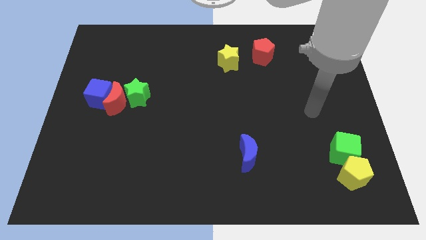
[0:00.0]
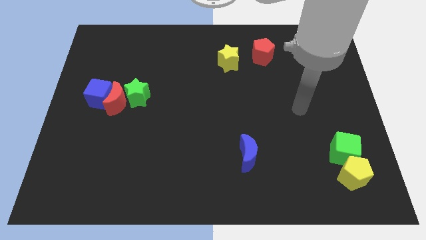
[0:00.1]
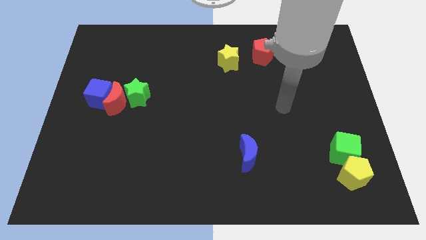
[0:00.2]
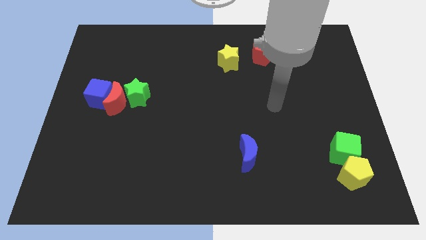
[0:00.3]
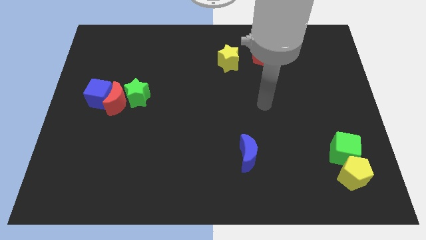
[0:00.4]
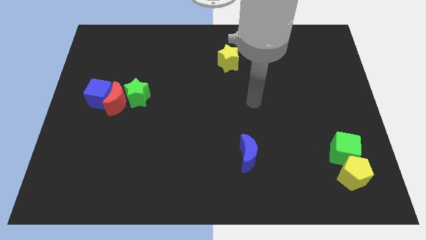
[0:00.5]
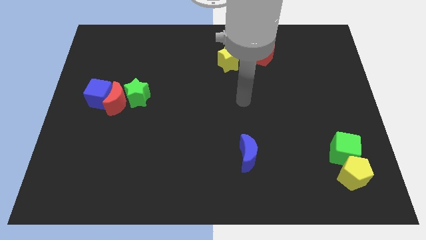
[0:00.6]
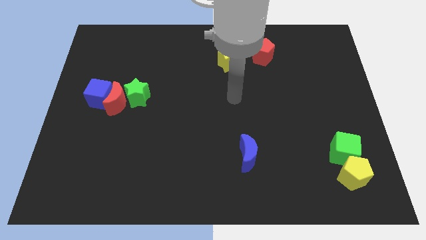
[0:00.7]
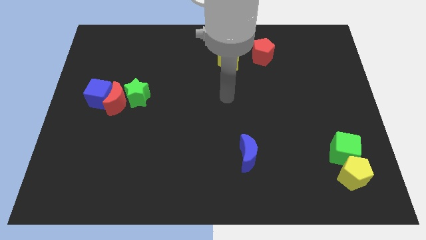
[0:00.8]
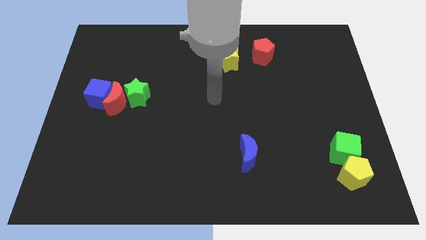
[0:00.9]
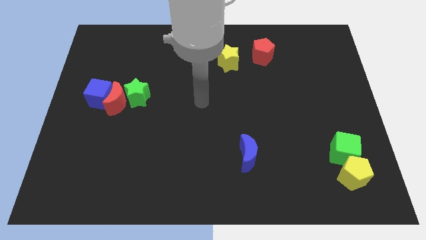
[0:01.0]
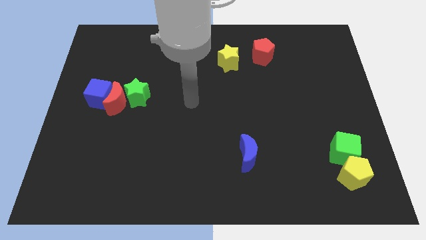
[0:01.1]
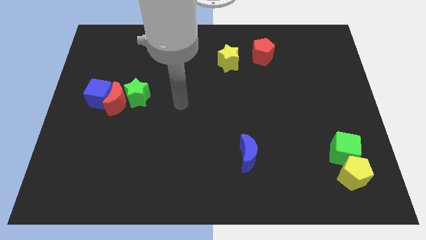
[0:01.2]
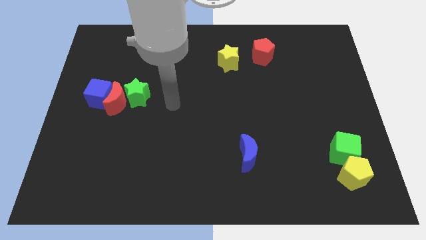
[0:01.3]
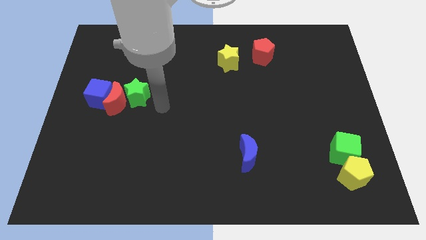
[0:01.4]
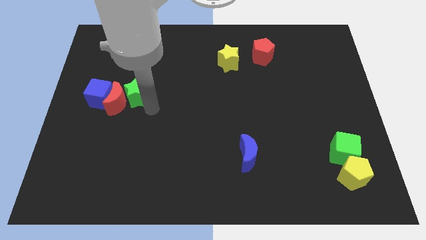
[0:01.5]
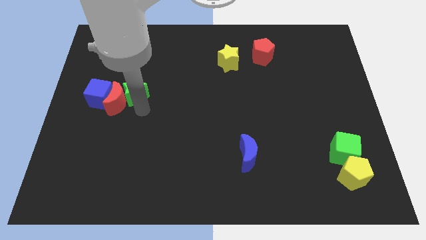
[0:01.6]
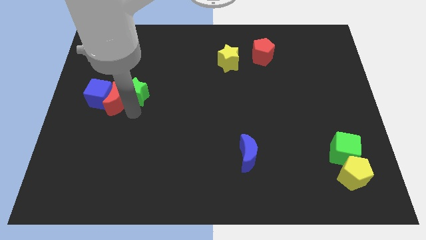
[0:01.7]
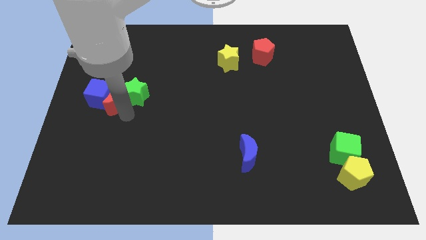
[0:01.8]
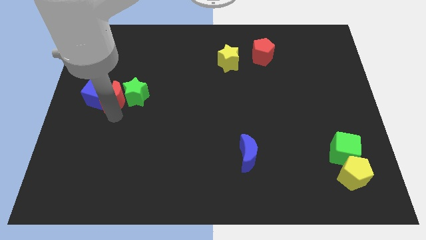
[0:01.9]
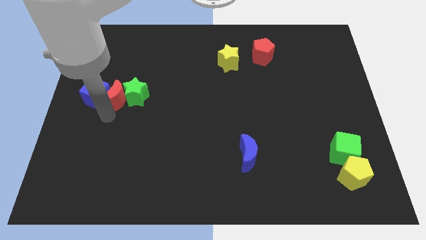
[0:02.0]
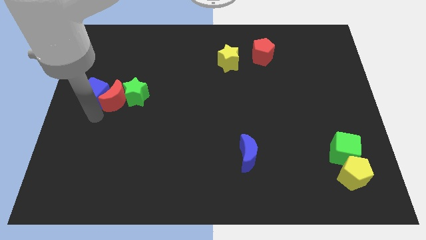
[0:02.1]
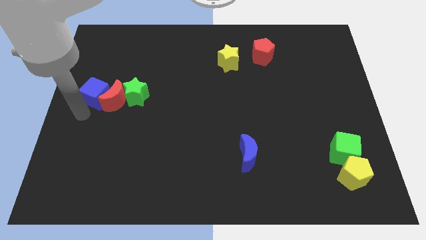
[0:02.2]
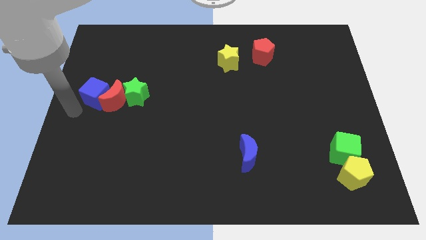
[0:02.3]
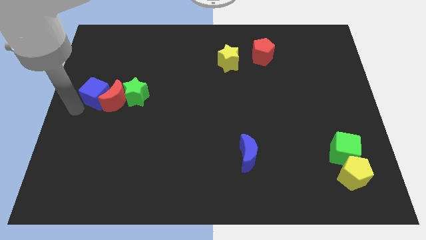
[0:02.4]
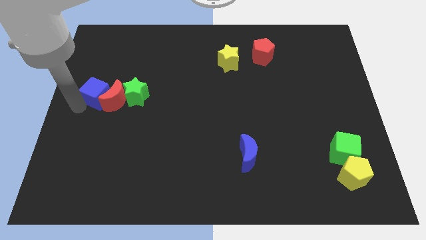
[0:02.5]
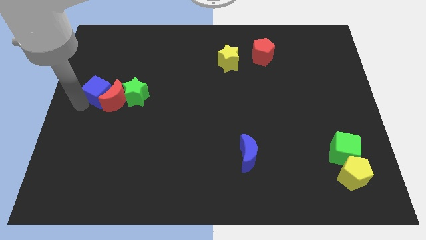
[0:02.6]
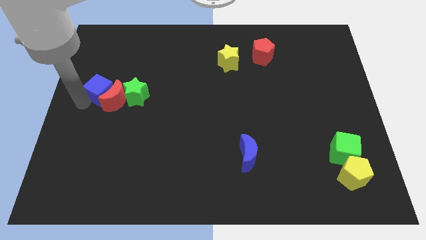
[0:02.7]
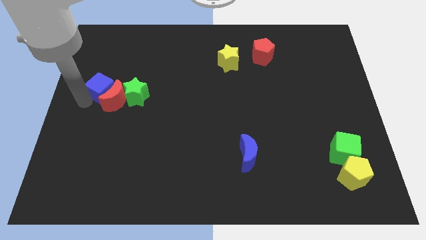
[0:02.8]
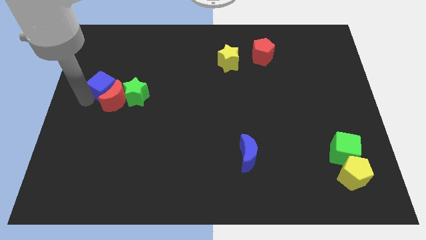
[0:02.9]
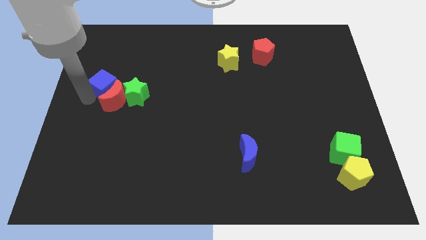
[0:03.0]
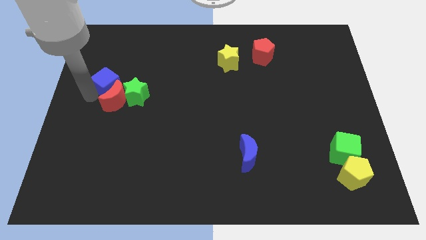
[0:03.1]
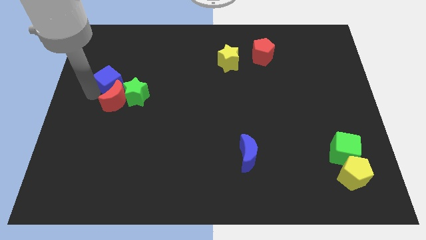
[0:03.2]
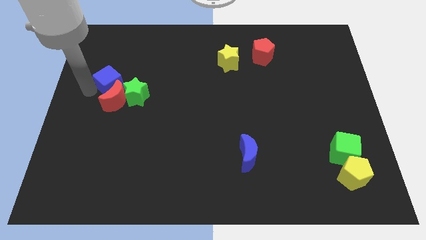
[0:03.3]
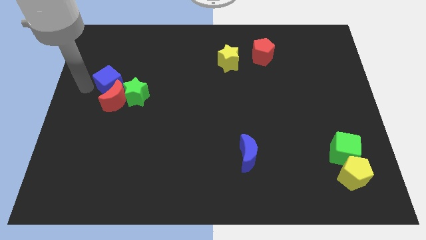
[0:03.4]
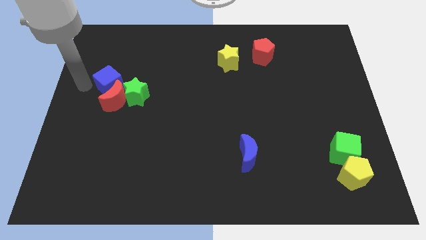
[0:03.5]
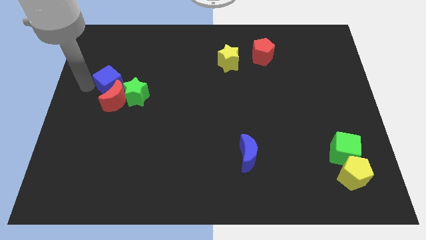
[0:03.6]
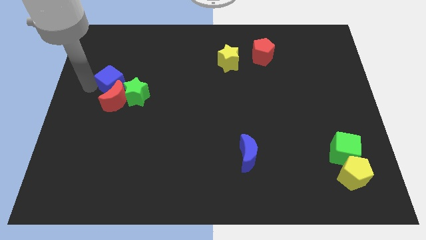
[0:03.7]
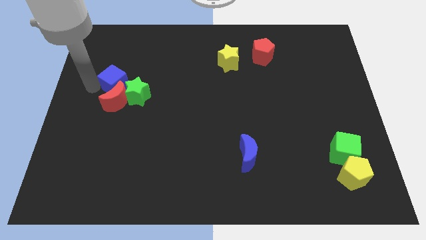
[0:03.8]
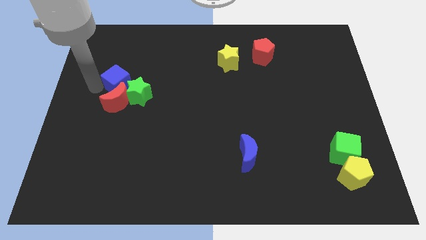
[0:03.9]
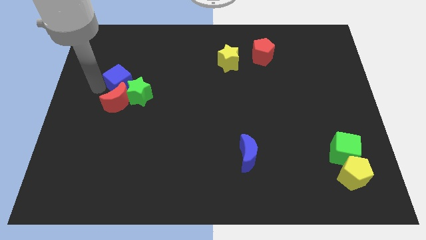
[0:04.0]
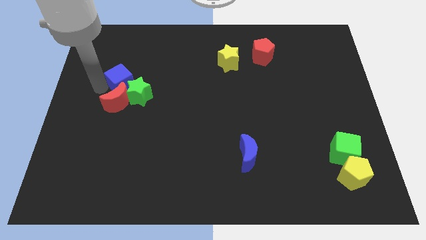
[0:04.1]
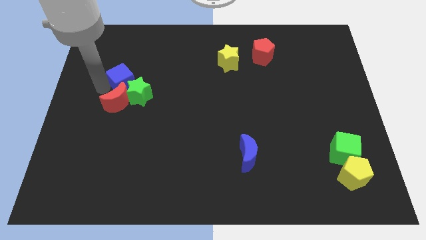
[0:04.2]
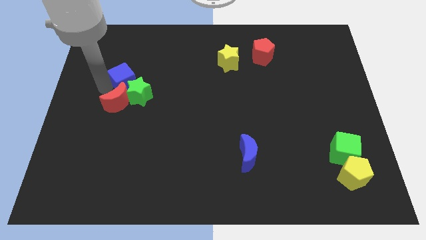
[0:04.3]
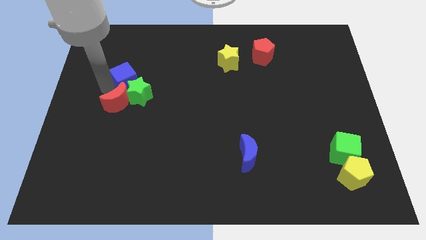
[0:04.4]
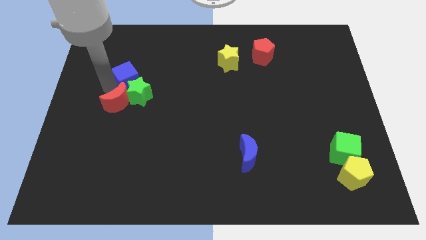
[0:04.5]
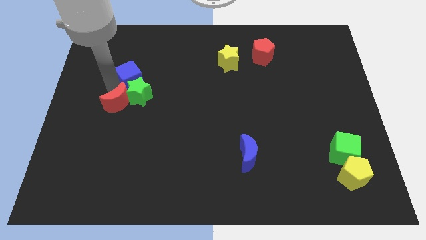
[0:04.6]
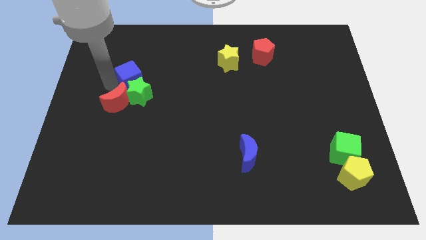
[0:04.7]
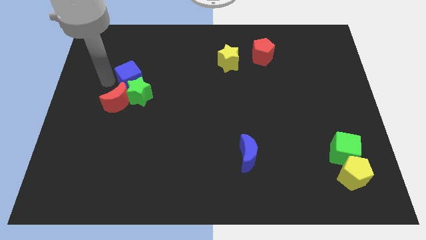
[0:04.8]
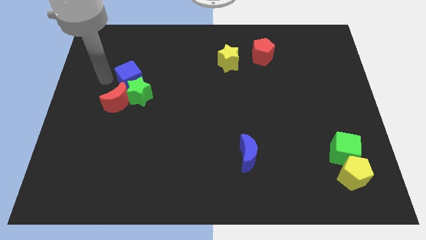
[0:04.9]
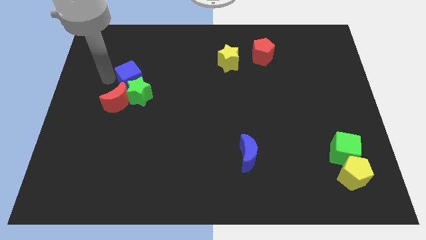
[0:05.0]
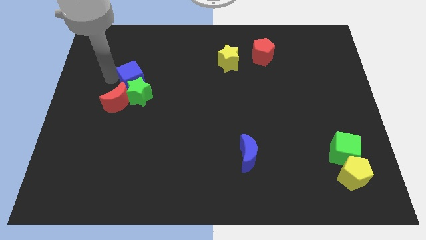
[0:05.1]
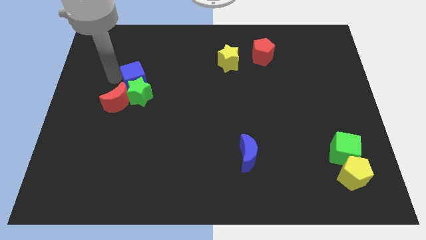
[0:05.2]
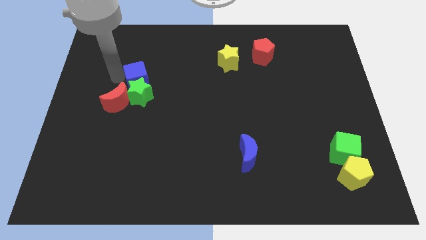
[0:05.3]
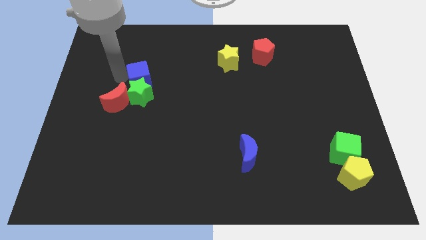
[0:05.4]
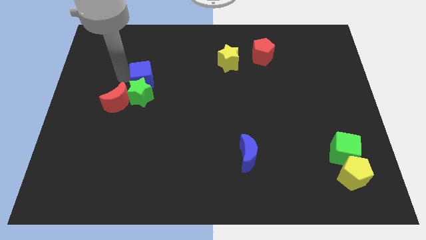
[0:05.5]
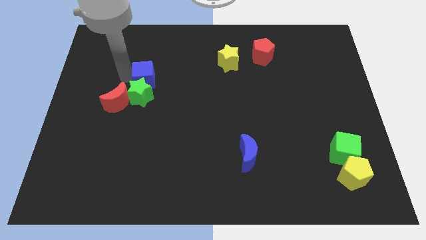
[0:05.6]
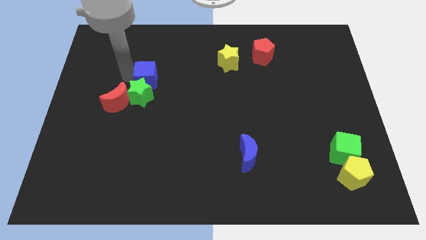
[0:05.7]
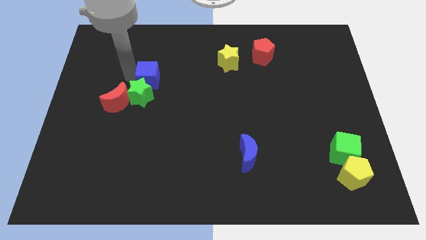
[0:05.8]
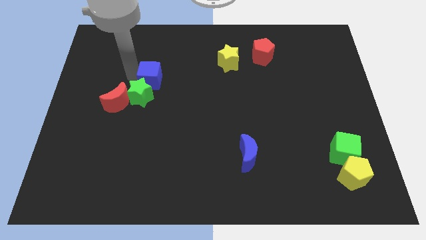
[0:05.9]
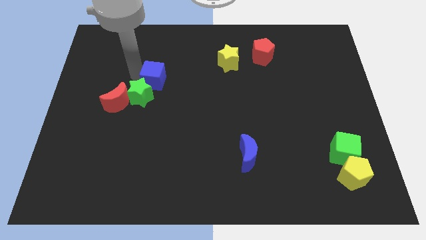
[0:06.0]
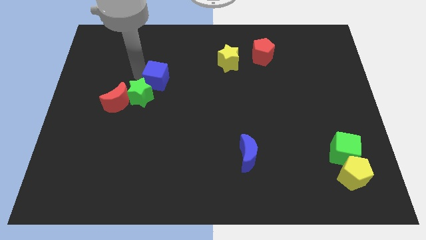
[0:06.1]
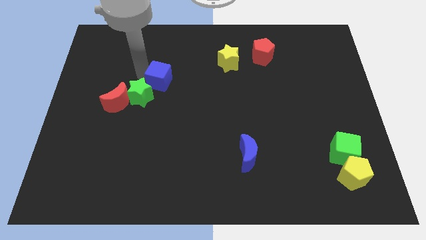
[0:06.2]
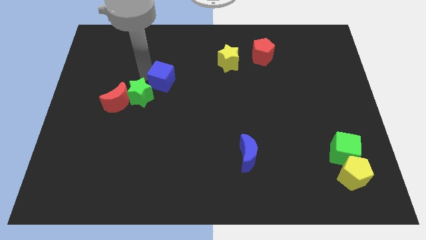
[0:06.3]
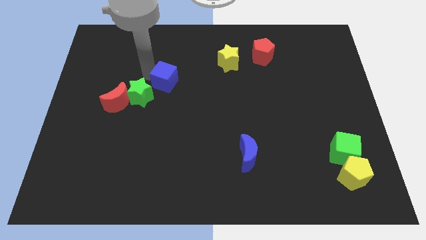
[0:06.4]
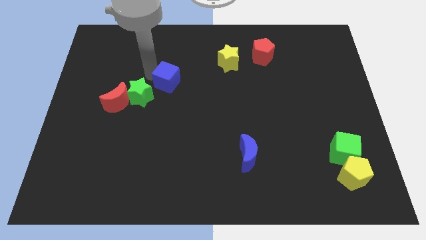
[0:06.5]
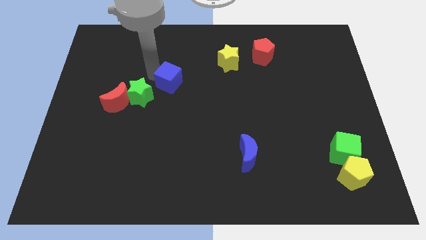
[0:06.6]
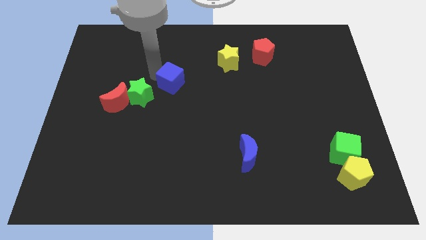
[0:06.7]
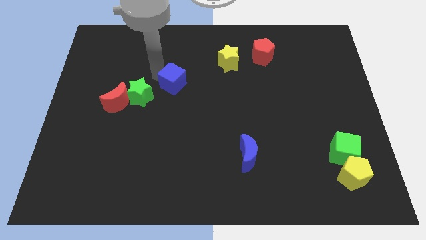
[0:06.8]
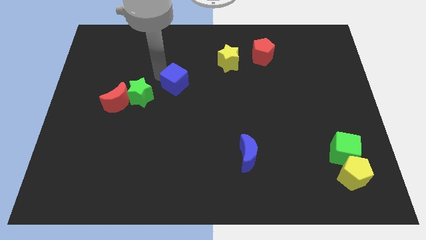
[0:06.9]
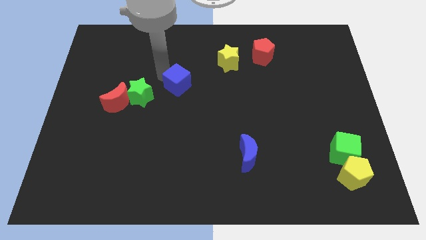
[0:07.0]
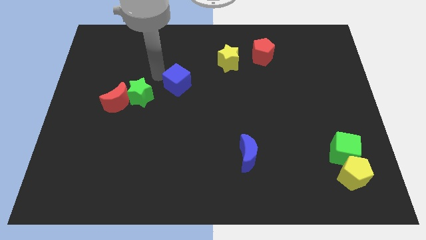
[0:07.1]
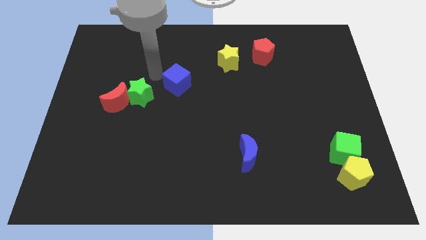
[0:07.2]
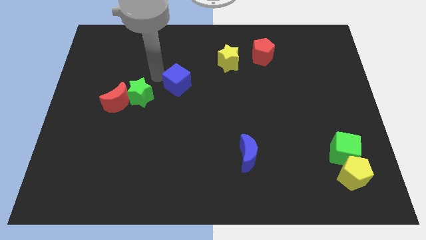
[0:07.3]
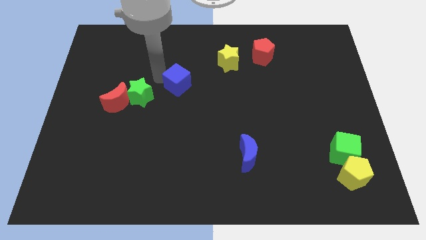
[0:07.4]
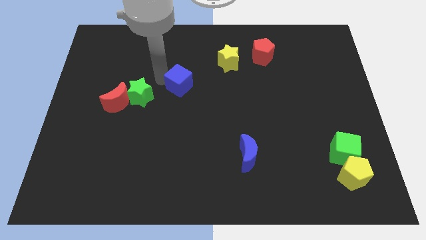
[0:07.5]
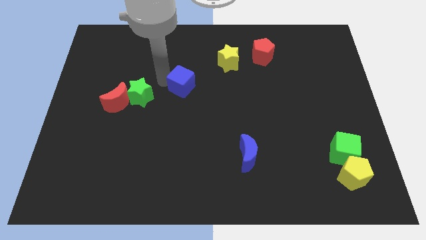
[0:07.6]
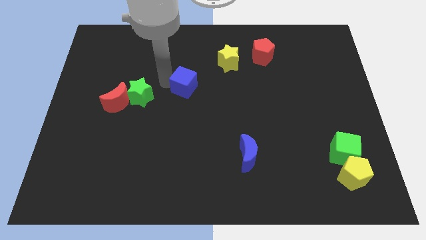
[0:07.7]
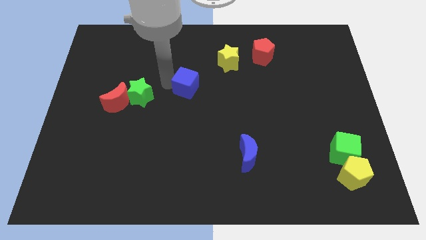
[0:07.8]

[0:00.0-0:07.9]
slide the blue cube right
